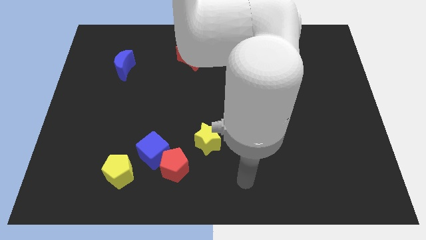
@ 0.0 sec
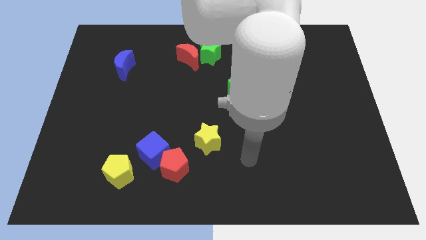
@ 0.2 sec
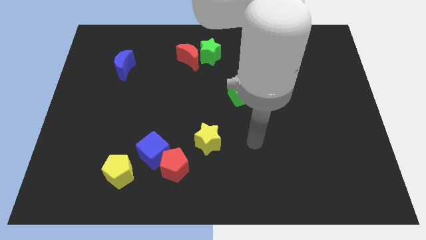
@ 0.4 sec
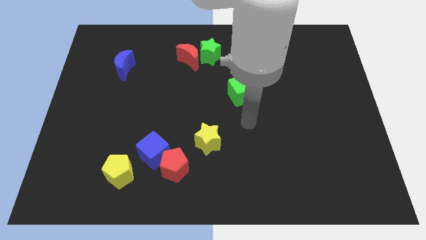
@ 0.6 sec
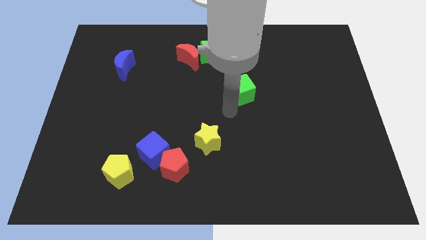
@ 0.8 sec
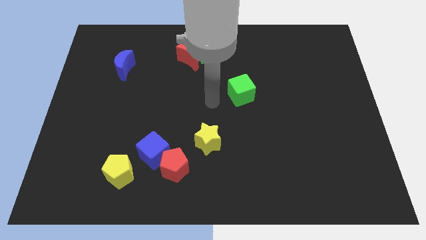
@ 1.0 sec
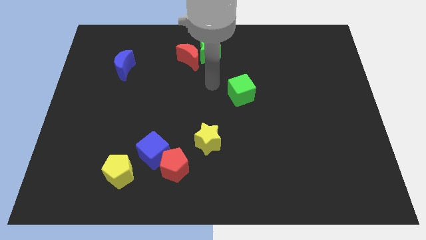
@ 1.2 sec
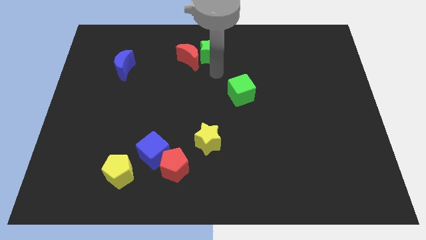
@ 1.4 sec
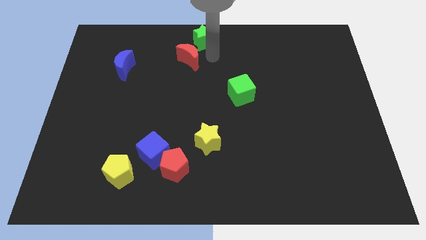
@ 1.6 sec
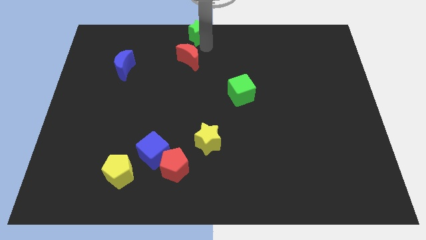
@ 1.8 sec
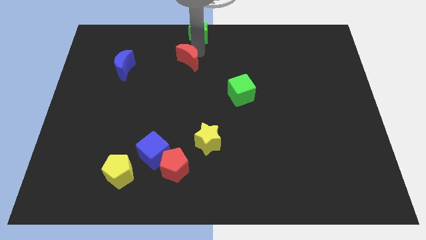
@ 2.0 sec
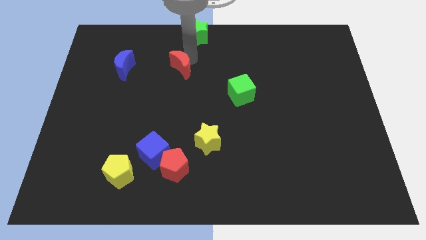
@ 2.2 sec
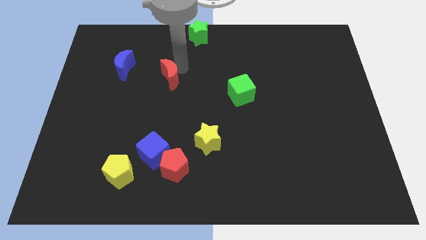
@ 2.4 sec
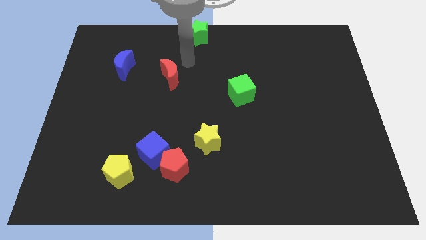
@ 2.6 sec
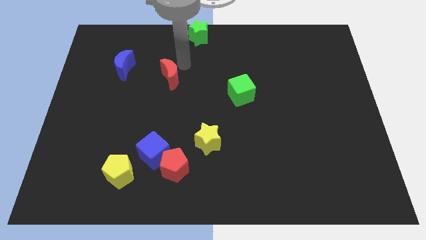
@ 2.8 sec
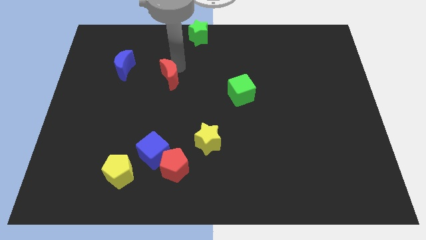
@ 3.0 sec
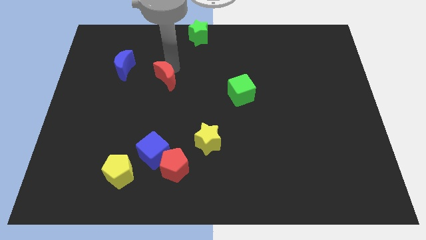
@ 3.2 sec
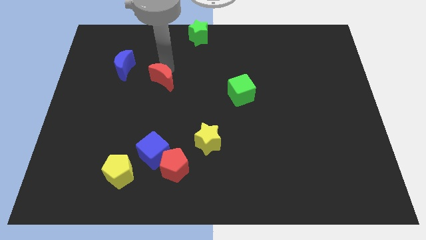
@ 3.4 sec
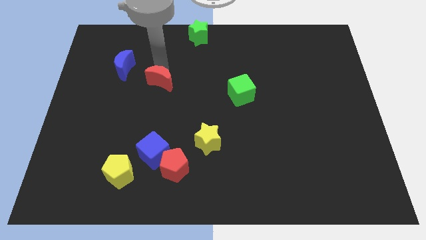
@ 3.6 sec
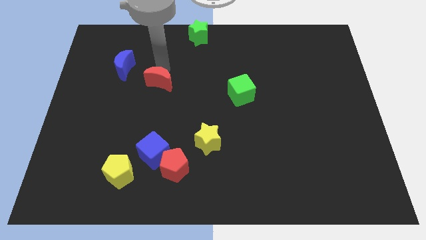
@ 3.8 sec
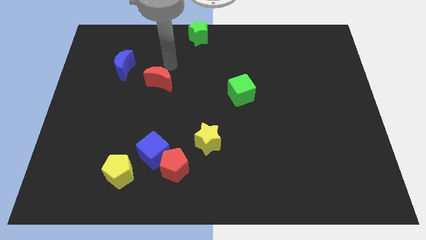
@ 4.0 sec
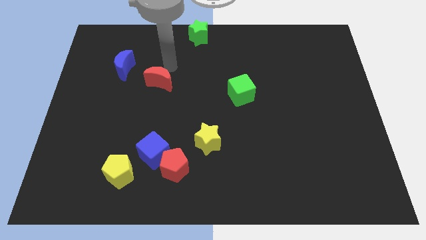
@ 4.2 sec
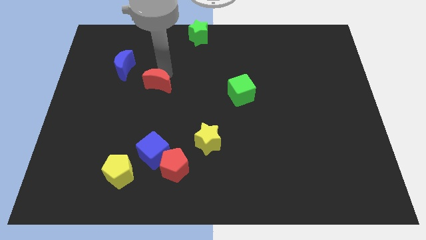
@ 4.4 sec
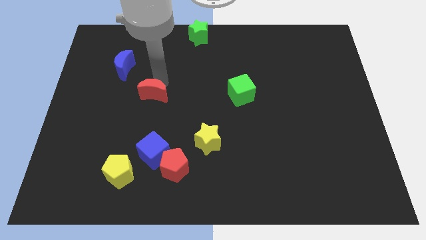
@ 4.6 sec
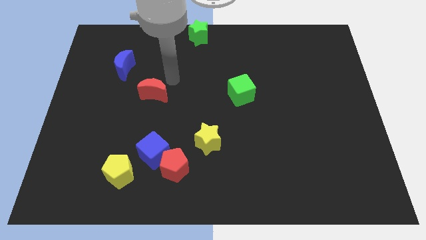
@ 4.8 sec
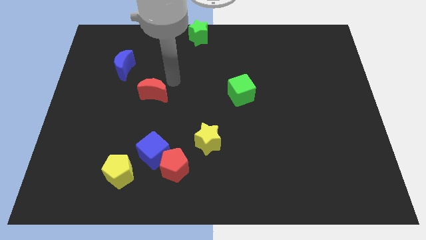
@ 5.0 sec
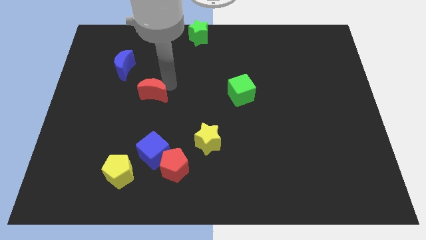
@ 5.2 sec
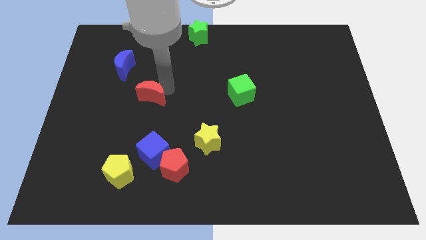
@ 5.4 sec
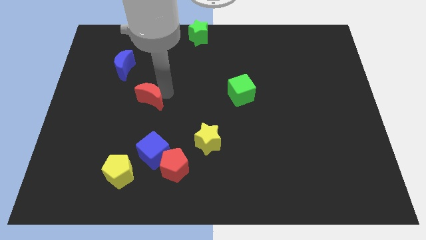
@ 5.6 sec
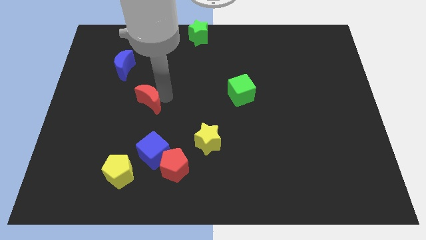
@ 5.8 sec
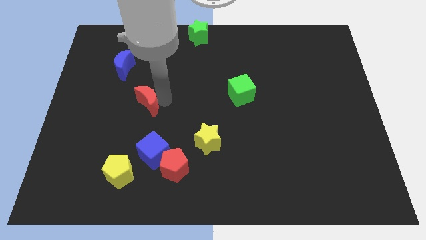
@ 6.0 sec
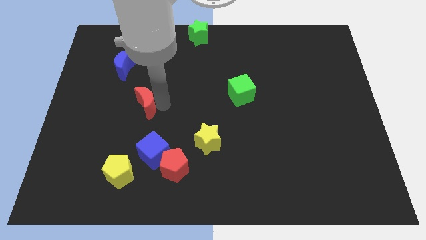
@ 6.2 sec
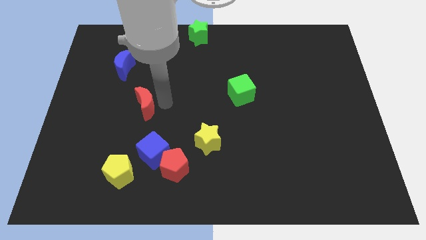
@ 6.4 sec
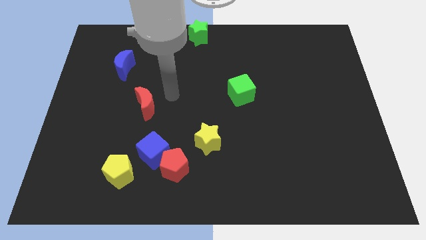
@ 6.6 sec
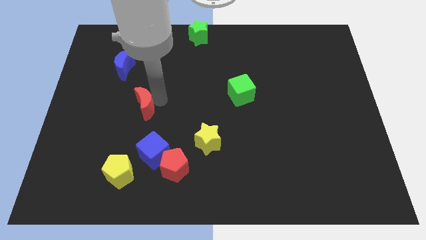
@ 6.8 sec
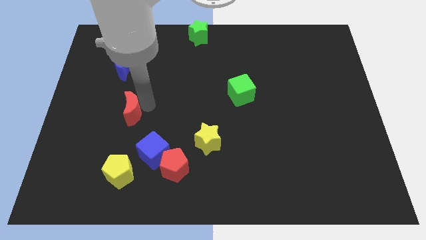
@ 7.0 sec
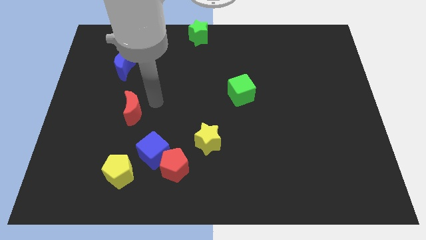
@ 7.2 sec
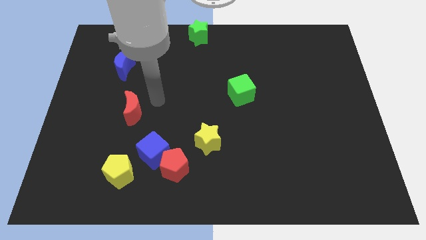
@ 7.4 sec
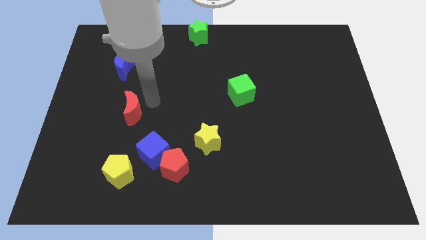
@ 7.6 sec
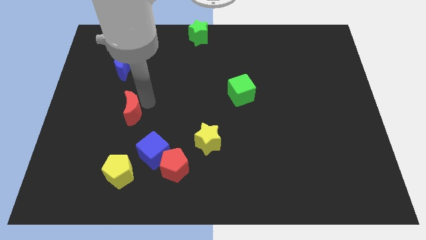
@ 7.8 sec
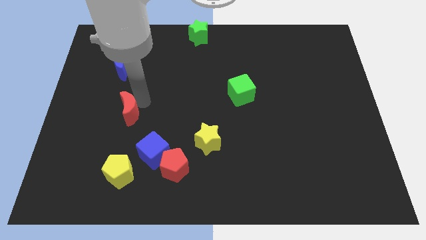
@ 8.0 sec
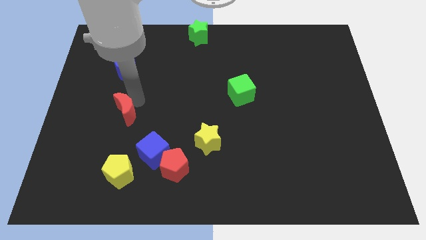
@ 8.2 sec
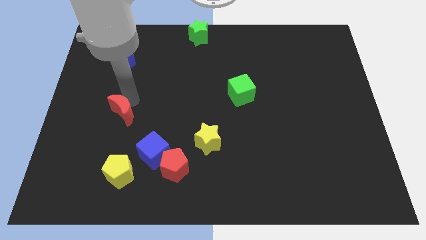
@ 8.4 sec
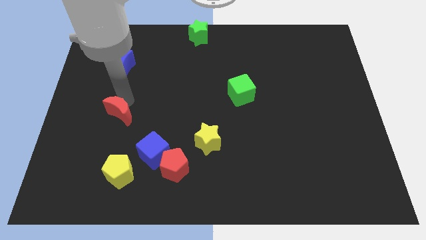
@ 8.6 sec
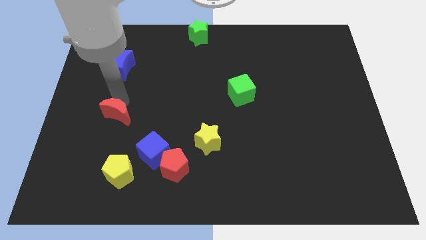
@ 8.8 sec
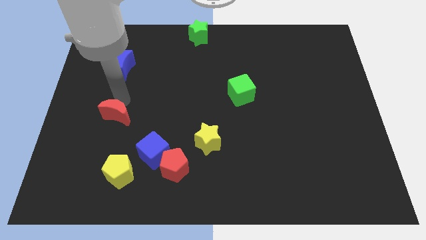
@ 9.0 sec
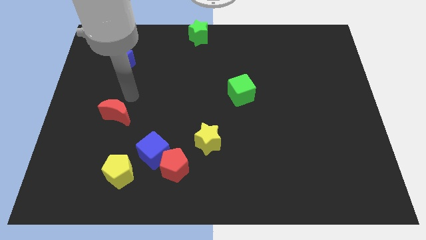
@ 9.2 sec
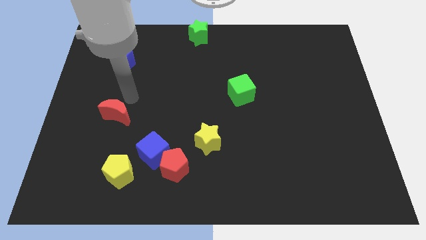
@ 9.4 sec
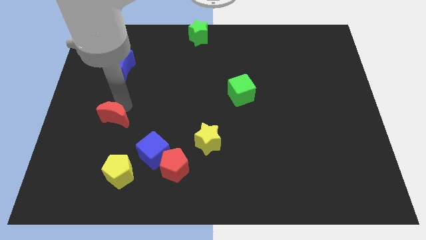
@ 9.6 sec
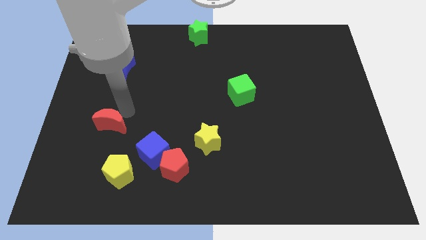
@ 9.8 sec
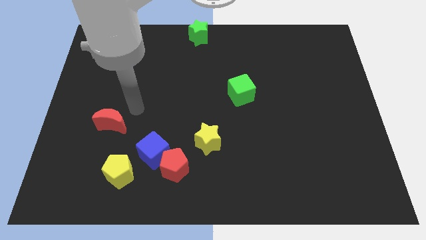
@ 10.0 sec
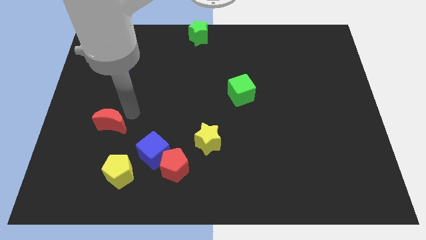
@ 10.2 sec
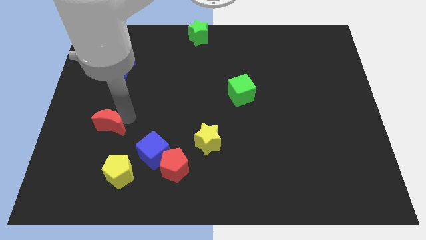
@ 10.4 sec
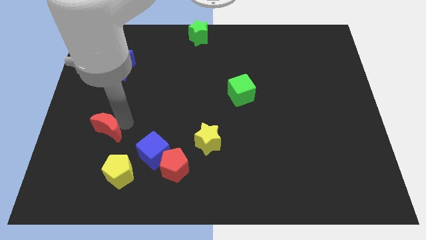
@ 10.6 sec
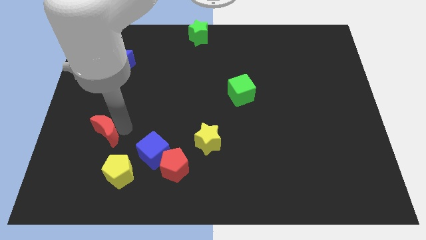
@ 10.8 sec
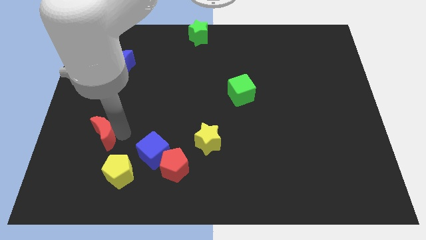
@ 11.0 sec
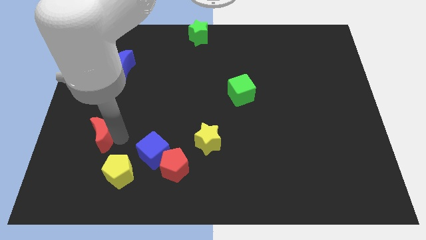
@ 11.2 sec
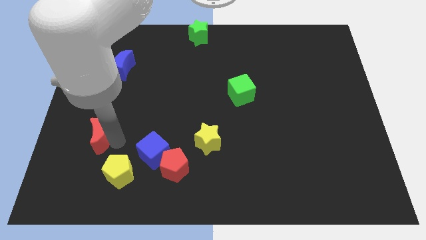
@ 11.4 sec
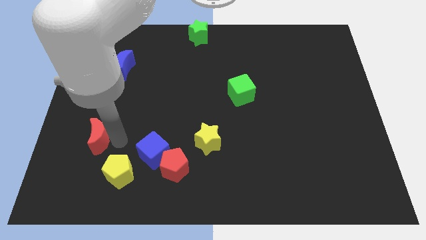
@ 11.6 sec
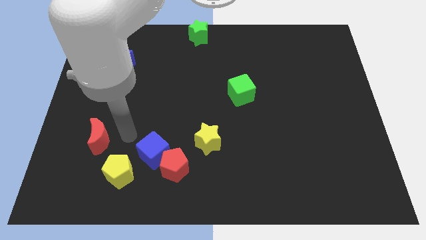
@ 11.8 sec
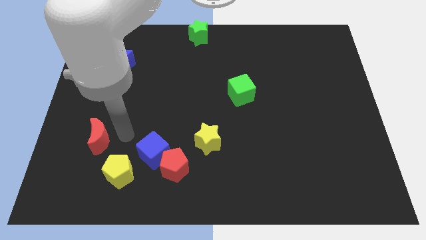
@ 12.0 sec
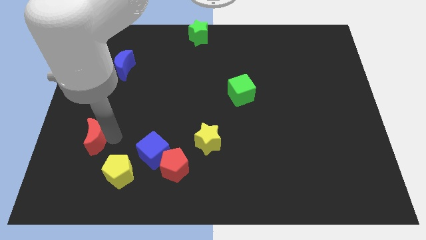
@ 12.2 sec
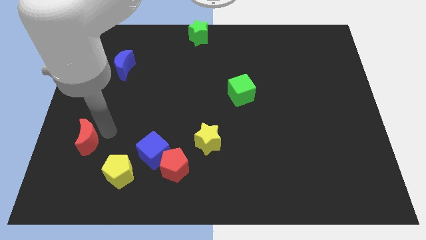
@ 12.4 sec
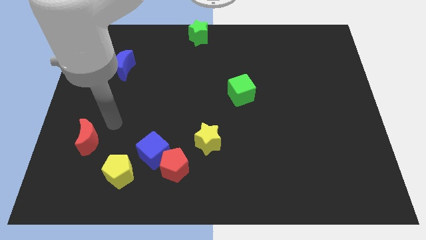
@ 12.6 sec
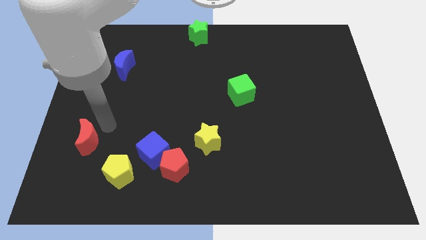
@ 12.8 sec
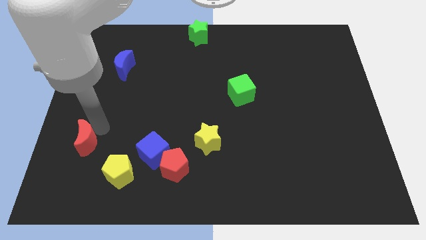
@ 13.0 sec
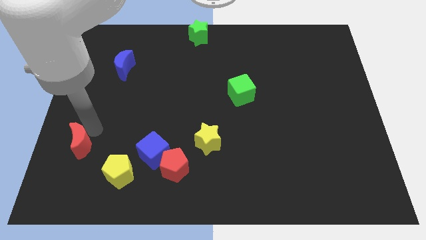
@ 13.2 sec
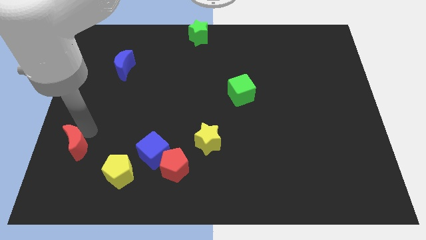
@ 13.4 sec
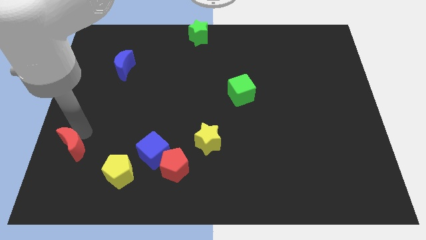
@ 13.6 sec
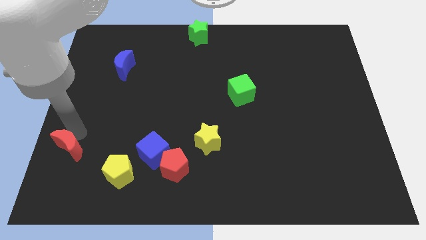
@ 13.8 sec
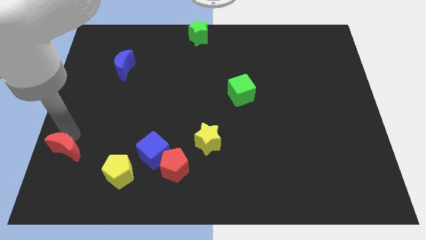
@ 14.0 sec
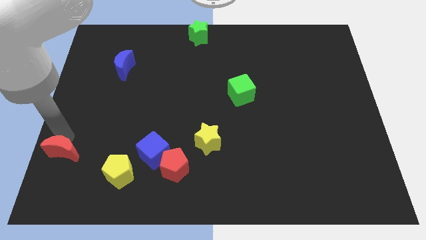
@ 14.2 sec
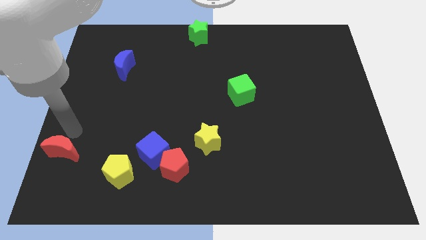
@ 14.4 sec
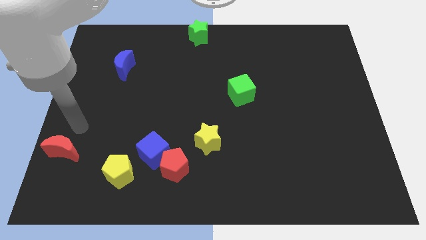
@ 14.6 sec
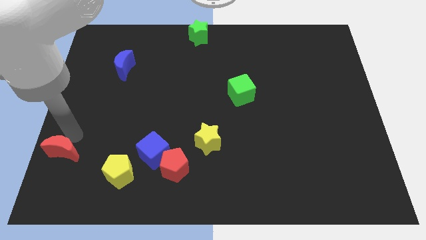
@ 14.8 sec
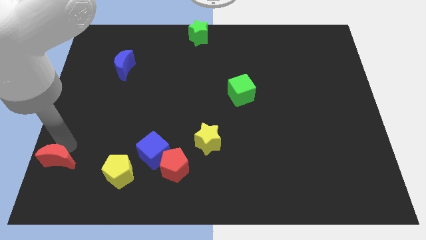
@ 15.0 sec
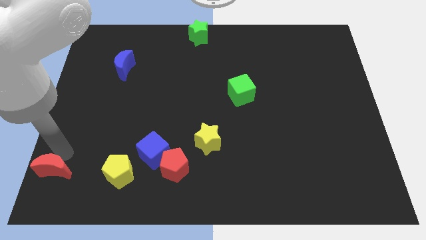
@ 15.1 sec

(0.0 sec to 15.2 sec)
slide the red moon to the bottom left of the board
